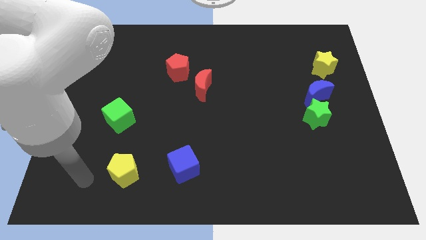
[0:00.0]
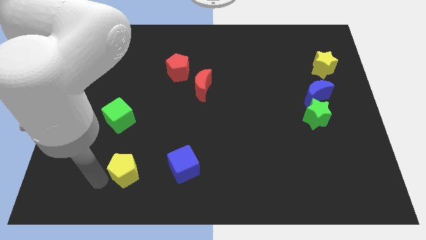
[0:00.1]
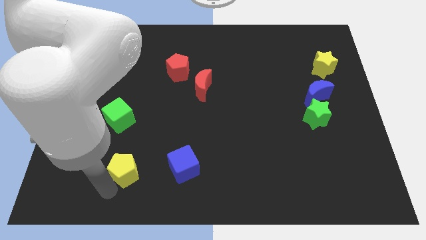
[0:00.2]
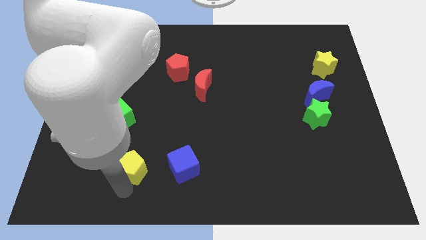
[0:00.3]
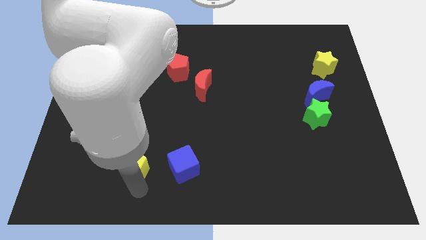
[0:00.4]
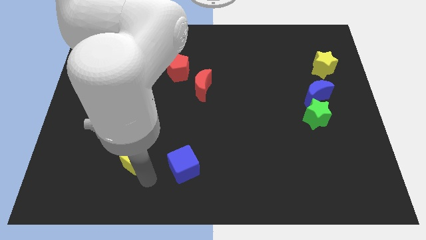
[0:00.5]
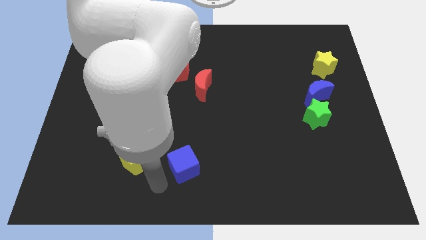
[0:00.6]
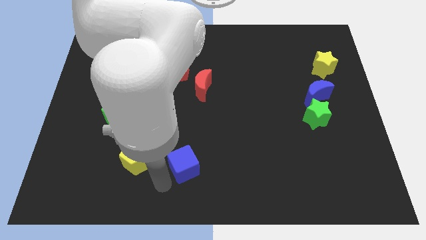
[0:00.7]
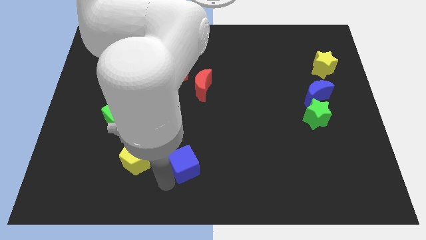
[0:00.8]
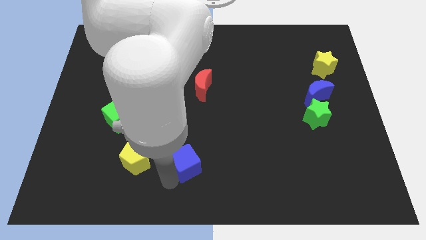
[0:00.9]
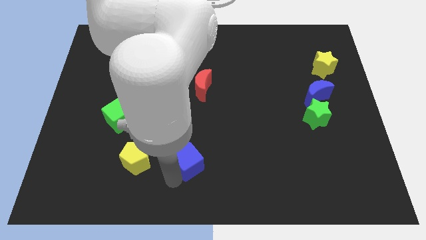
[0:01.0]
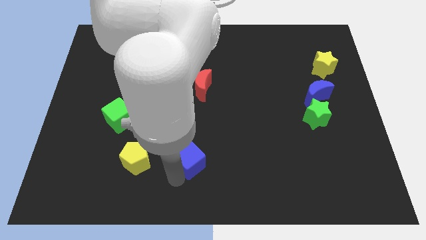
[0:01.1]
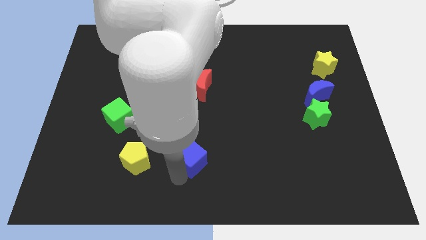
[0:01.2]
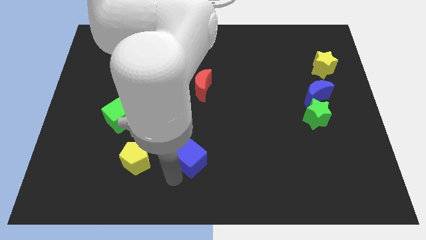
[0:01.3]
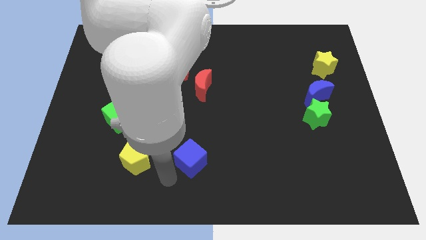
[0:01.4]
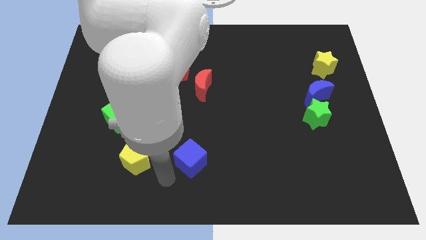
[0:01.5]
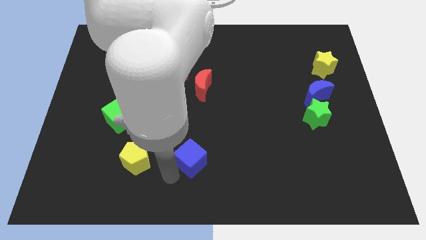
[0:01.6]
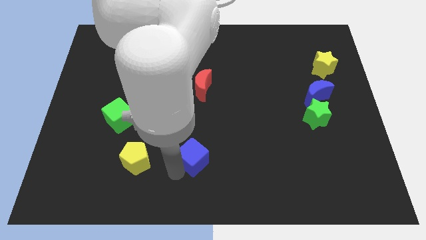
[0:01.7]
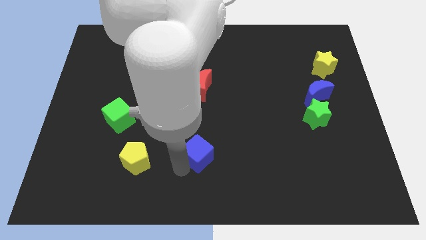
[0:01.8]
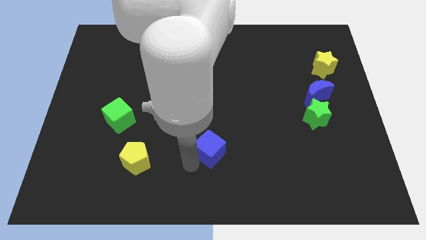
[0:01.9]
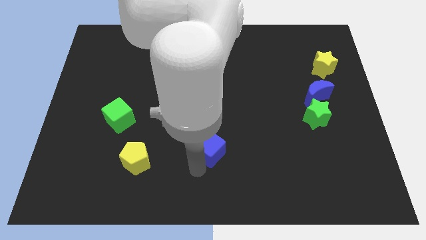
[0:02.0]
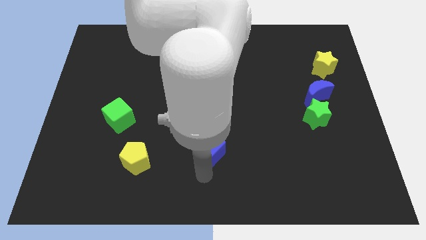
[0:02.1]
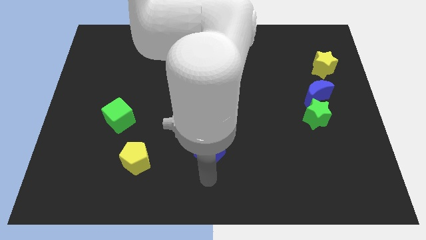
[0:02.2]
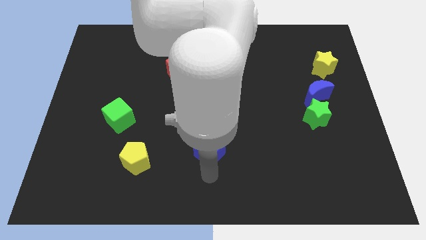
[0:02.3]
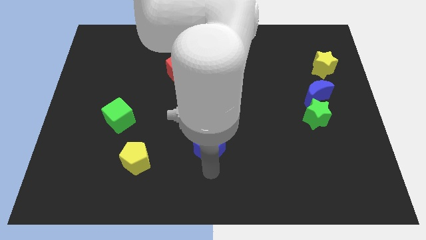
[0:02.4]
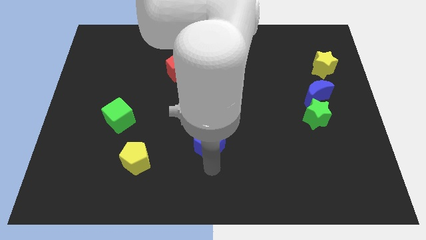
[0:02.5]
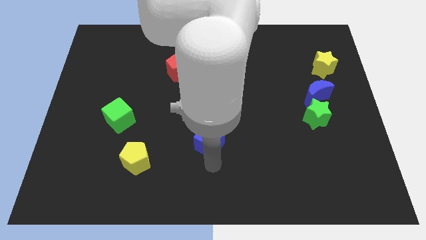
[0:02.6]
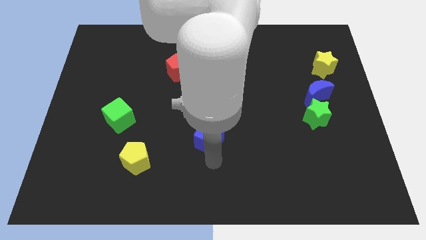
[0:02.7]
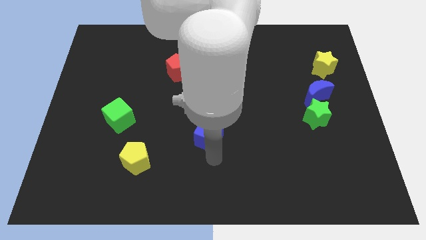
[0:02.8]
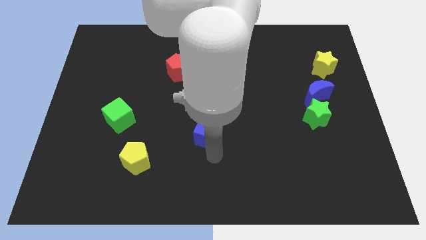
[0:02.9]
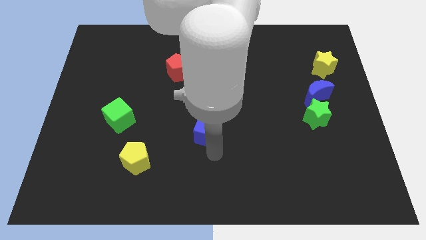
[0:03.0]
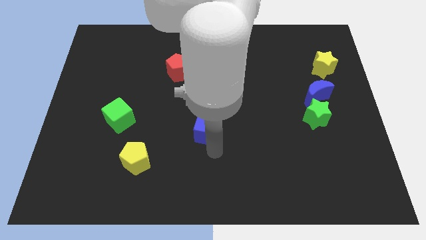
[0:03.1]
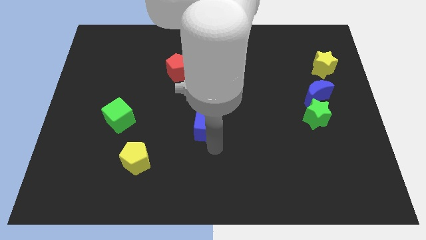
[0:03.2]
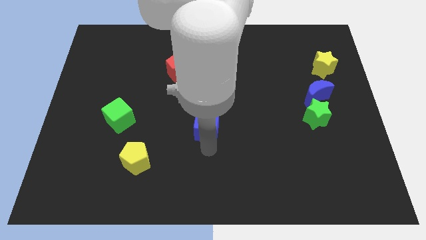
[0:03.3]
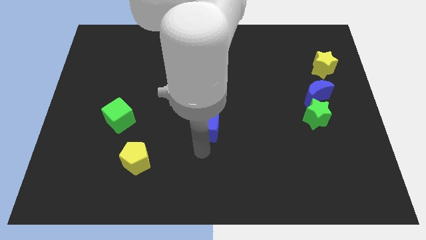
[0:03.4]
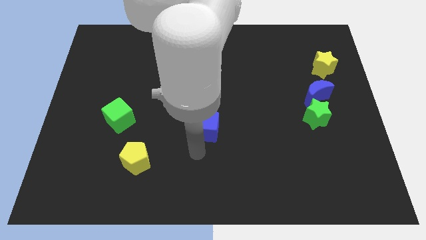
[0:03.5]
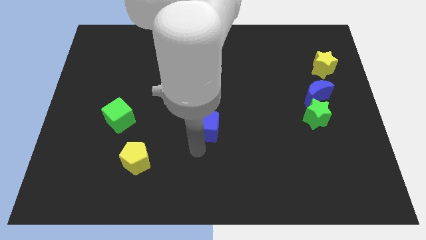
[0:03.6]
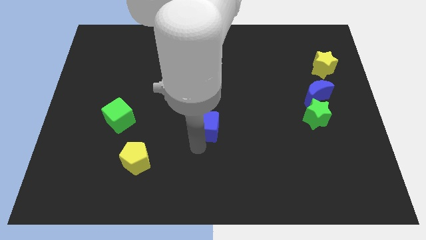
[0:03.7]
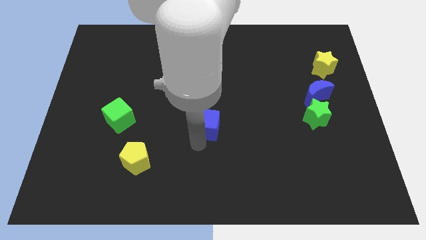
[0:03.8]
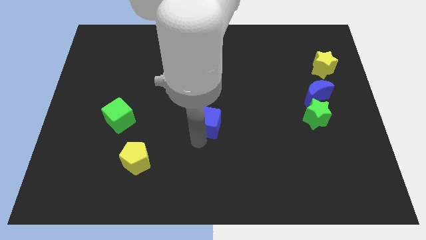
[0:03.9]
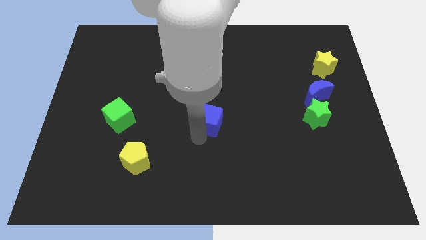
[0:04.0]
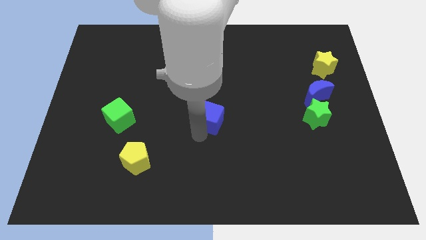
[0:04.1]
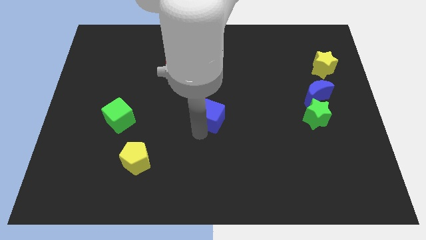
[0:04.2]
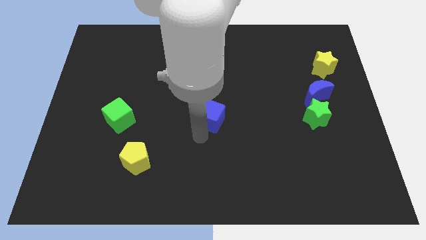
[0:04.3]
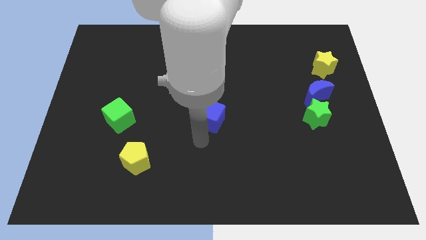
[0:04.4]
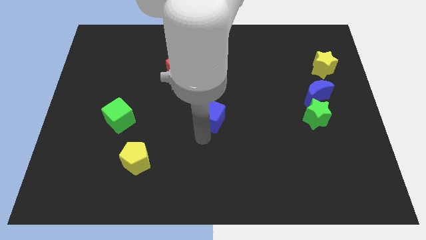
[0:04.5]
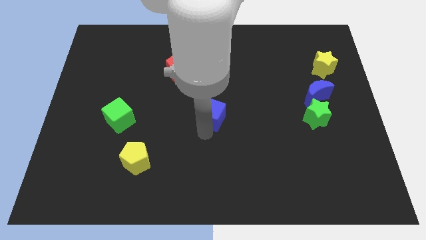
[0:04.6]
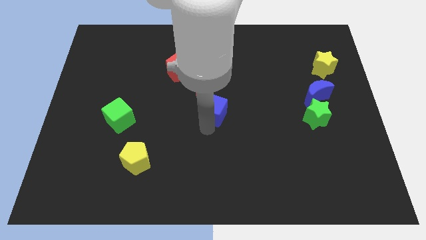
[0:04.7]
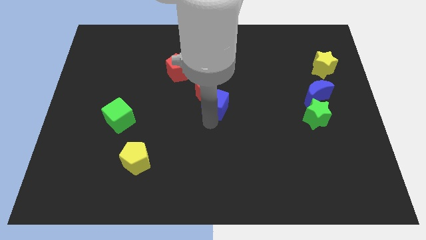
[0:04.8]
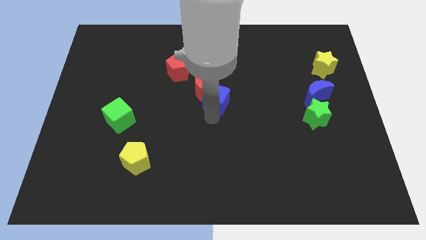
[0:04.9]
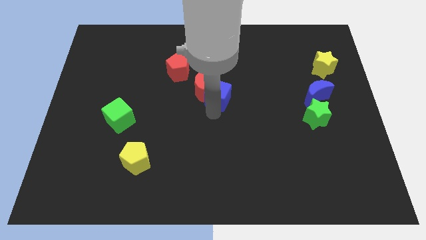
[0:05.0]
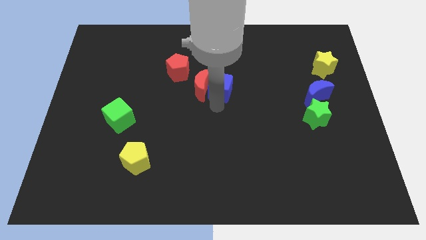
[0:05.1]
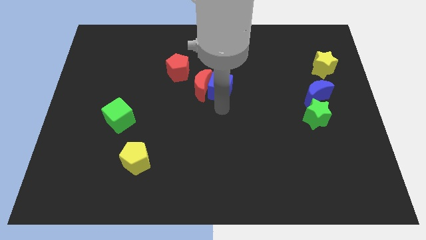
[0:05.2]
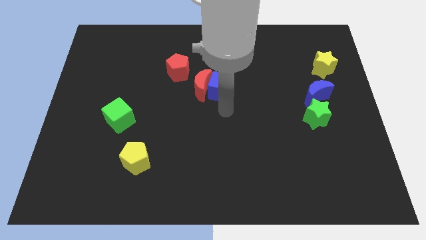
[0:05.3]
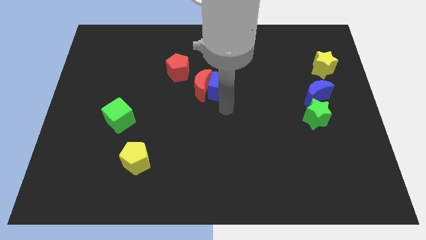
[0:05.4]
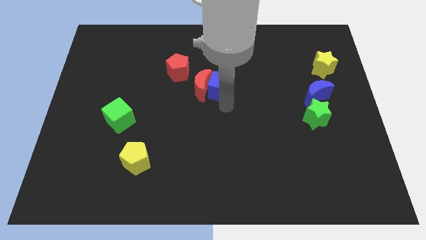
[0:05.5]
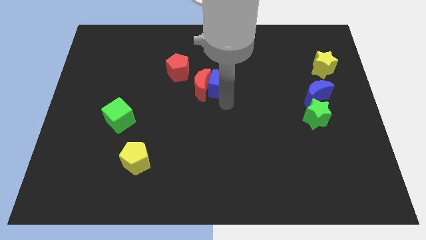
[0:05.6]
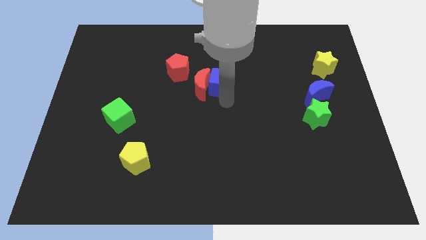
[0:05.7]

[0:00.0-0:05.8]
push the blue cube upwards

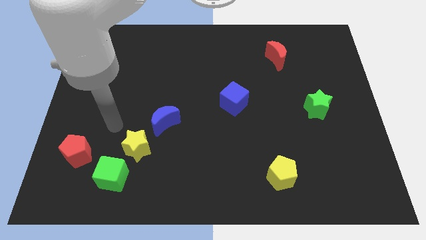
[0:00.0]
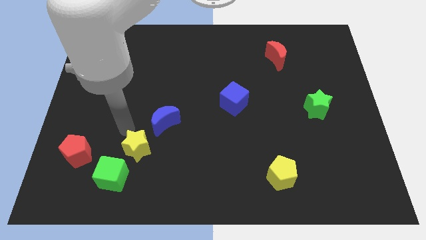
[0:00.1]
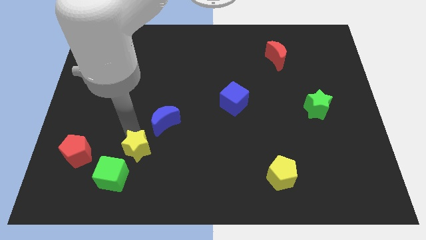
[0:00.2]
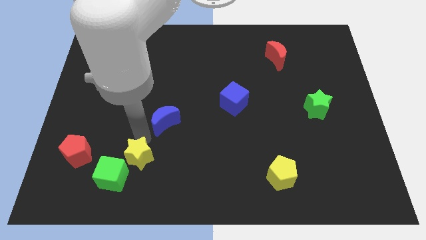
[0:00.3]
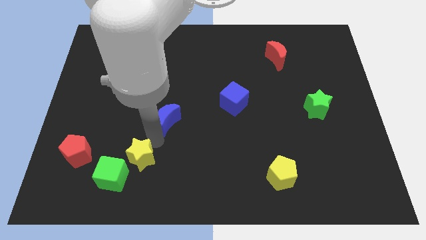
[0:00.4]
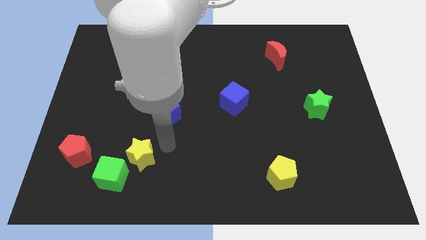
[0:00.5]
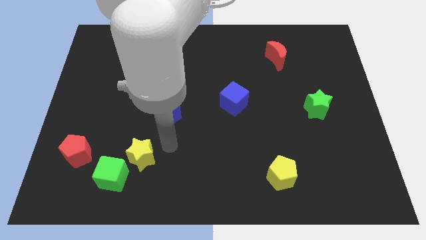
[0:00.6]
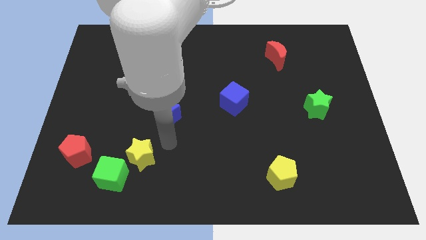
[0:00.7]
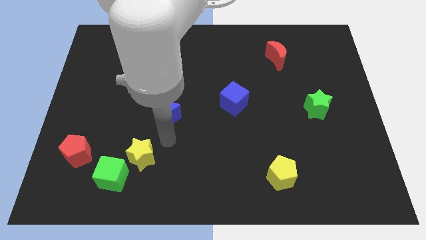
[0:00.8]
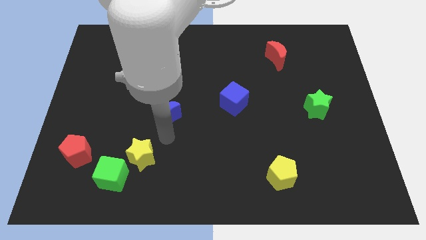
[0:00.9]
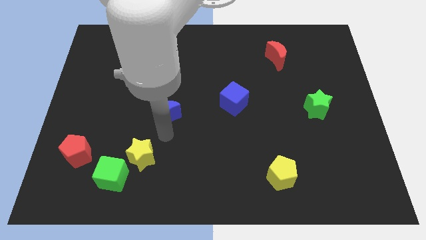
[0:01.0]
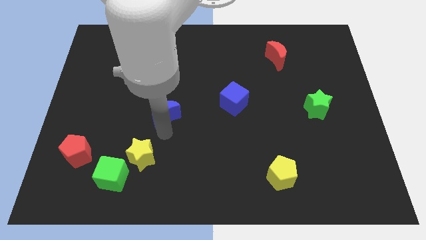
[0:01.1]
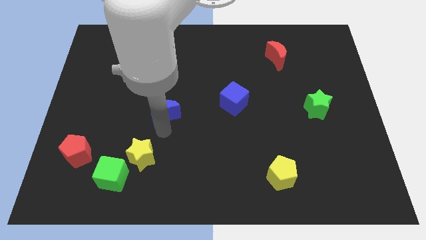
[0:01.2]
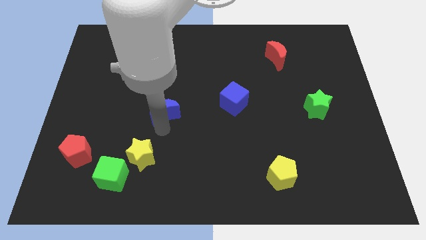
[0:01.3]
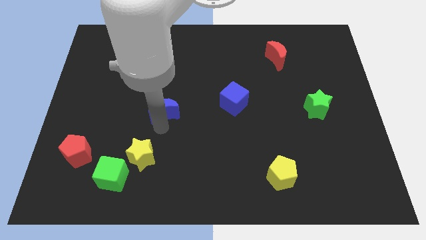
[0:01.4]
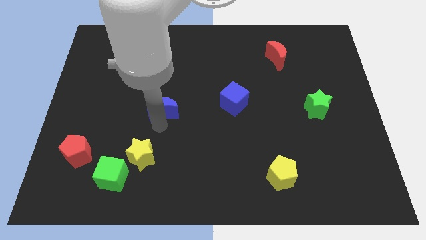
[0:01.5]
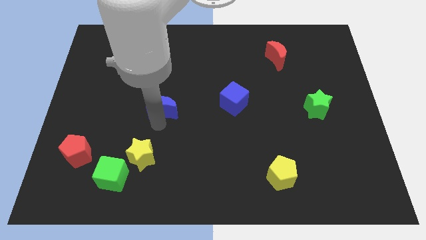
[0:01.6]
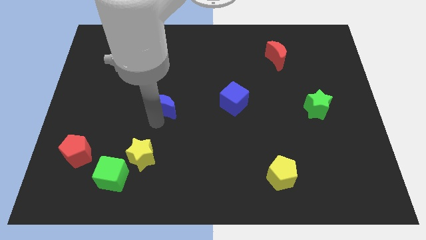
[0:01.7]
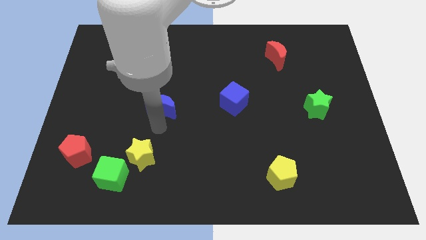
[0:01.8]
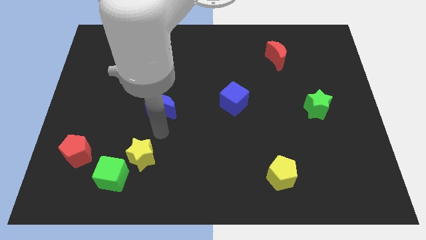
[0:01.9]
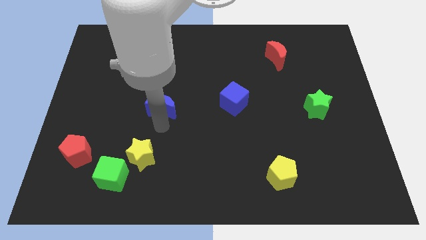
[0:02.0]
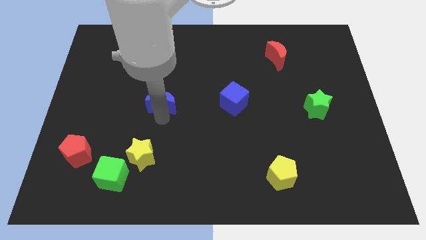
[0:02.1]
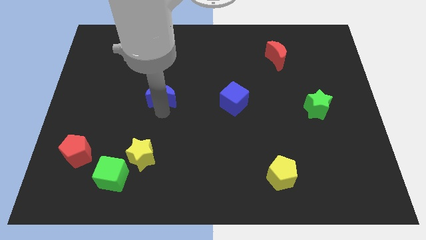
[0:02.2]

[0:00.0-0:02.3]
slide the blue moon up slightly
